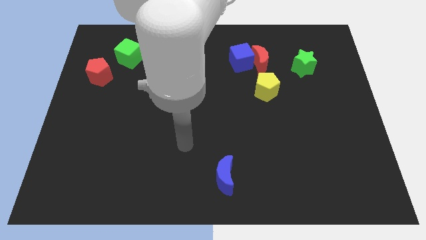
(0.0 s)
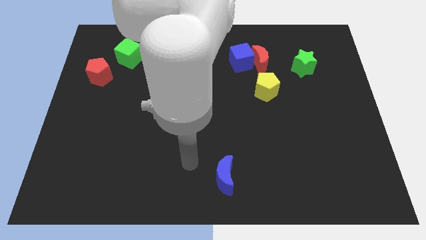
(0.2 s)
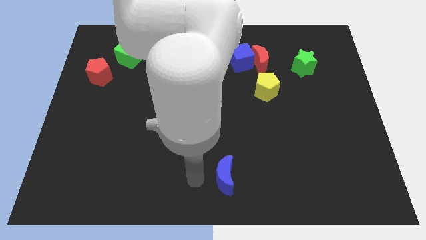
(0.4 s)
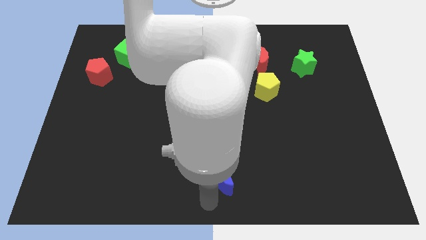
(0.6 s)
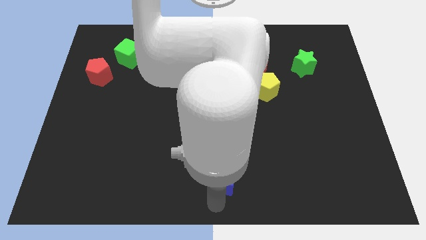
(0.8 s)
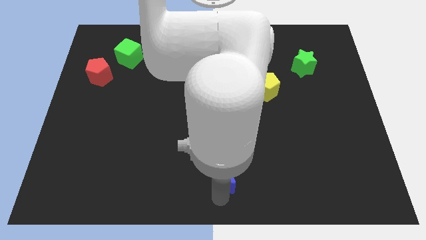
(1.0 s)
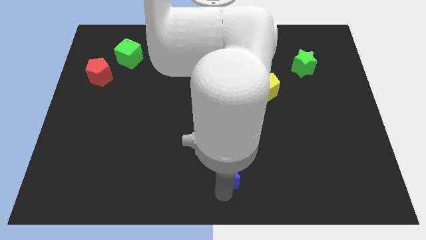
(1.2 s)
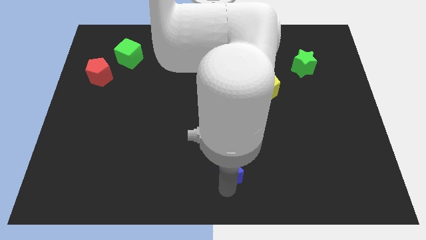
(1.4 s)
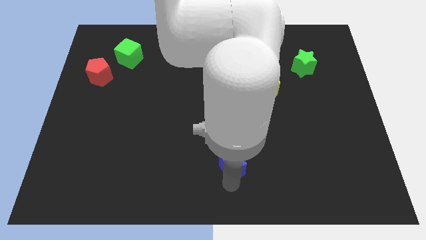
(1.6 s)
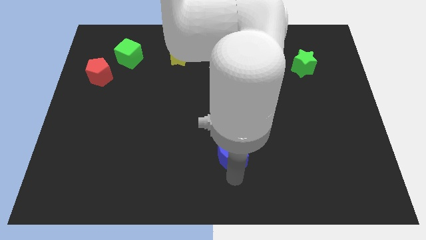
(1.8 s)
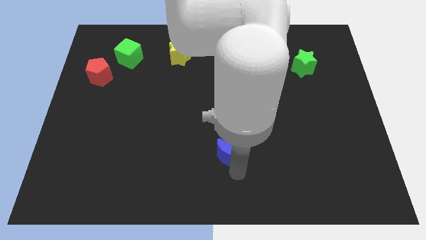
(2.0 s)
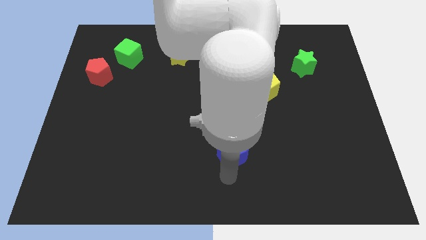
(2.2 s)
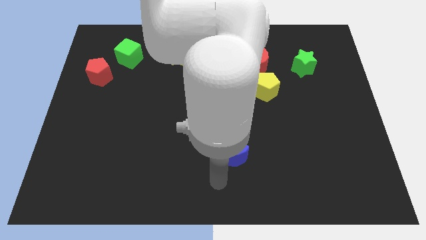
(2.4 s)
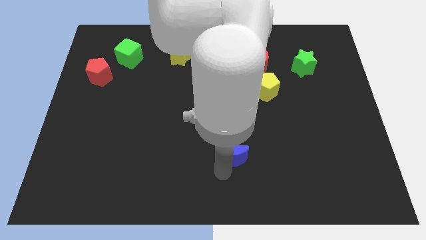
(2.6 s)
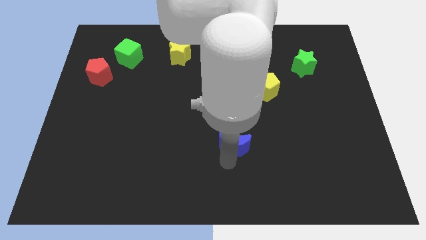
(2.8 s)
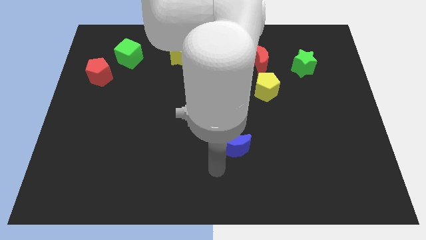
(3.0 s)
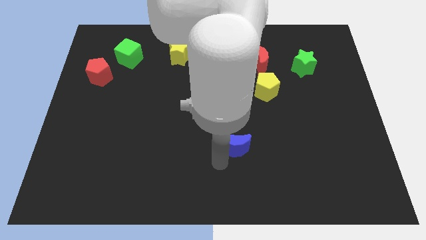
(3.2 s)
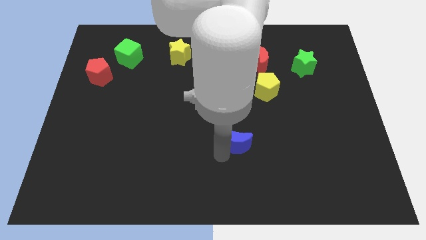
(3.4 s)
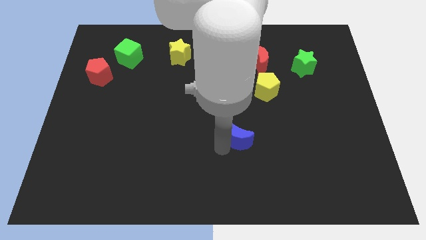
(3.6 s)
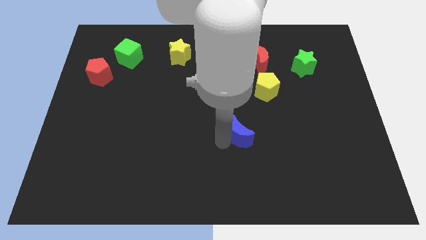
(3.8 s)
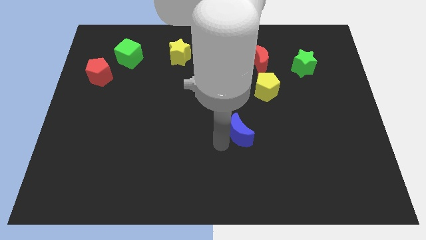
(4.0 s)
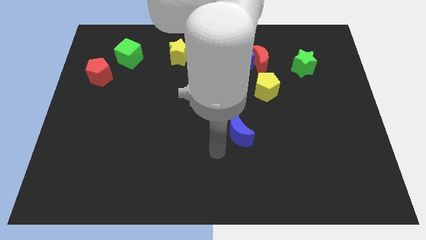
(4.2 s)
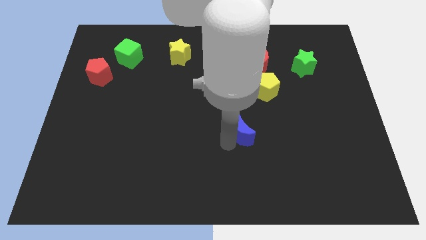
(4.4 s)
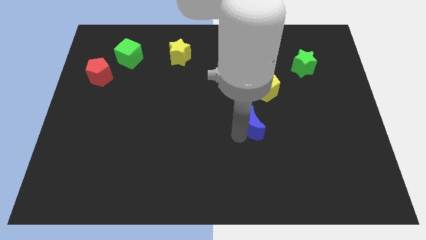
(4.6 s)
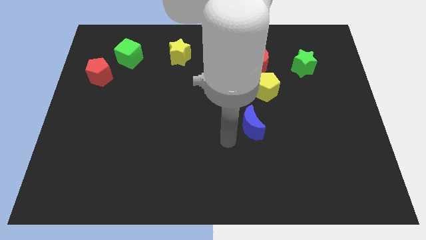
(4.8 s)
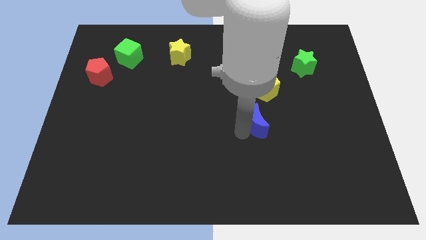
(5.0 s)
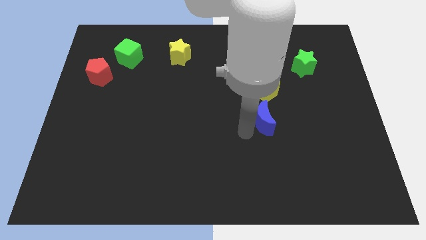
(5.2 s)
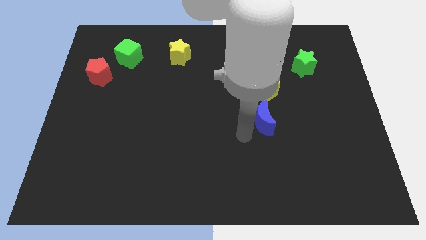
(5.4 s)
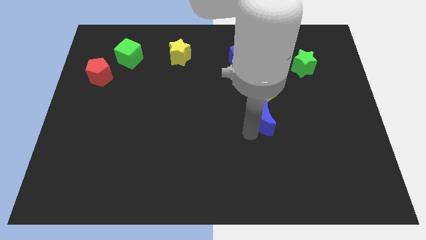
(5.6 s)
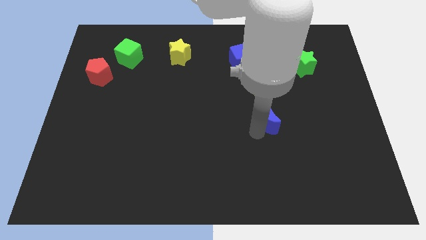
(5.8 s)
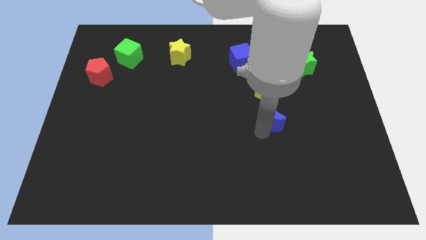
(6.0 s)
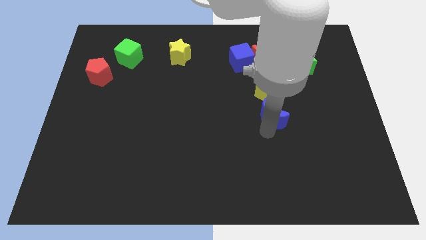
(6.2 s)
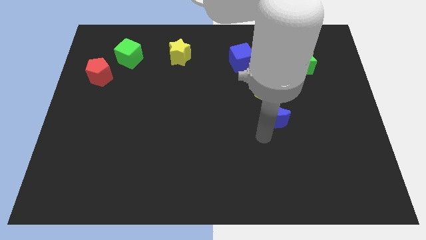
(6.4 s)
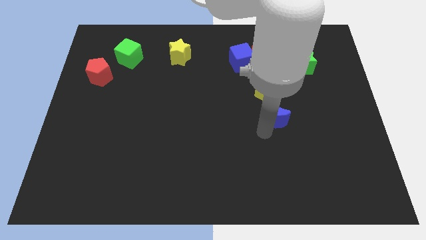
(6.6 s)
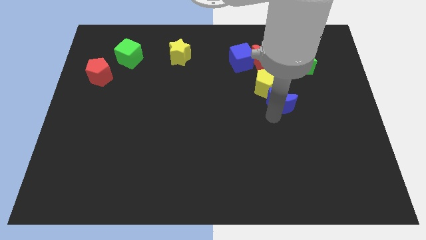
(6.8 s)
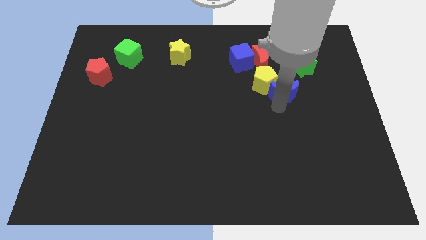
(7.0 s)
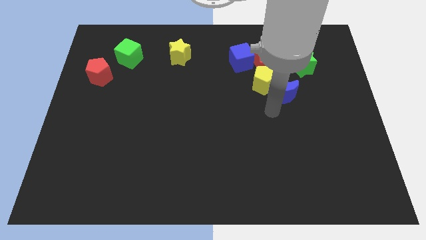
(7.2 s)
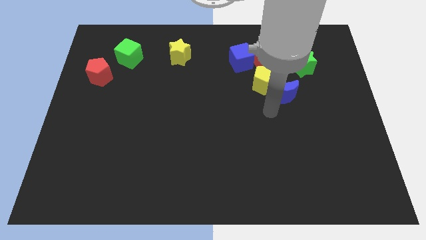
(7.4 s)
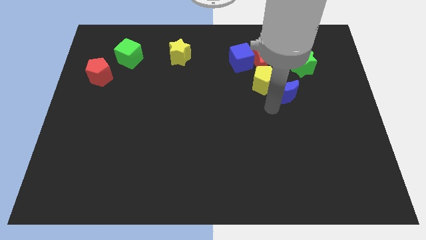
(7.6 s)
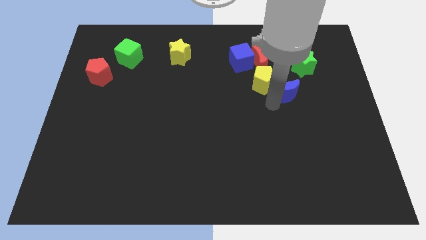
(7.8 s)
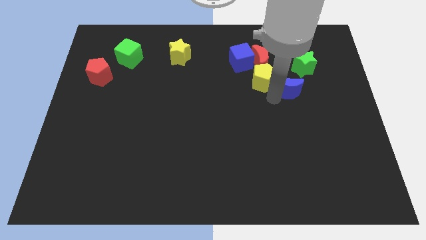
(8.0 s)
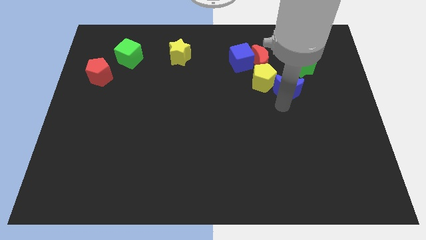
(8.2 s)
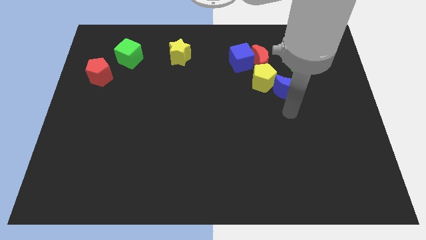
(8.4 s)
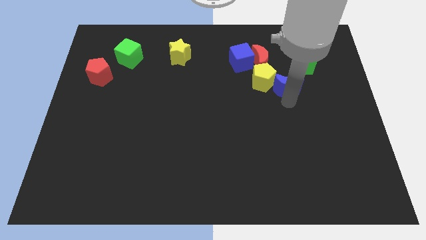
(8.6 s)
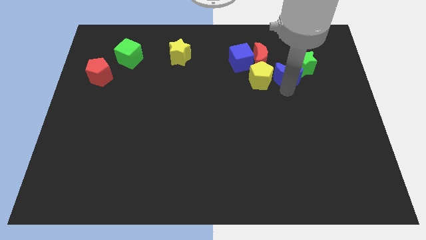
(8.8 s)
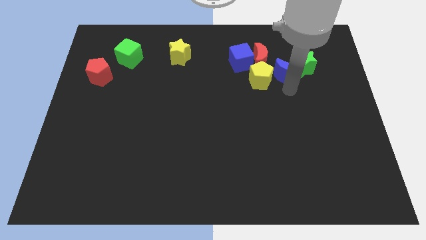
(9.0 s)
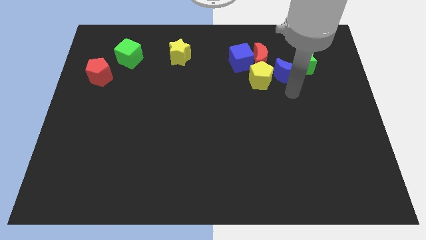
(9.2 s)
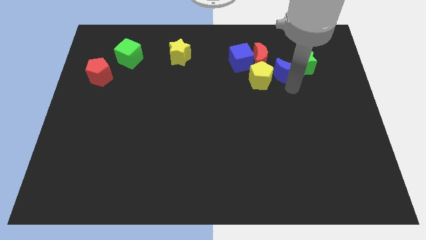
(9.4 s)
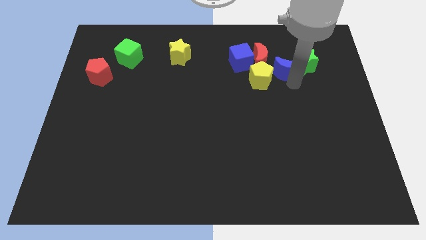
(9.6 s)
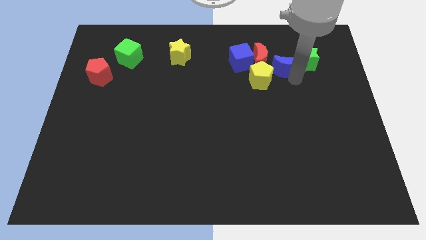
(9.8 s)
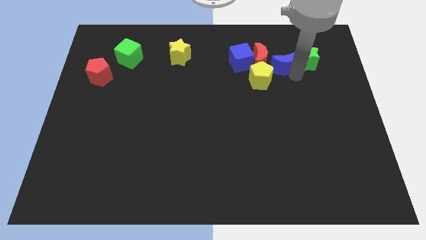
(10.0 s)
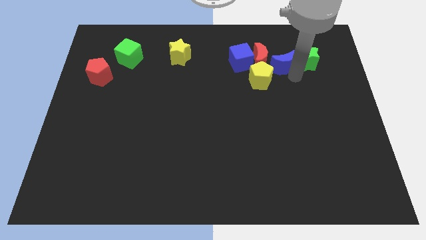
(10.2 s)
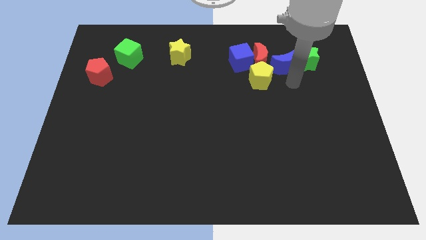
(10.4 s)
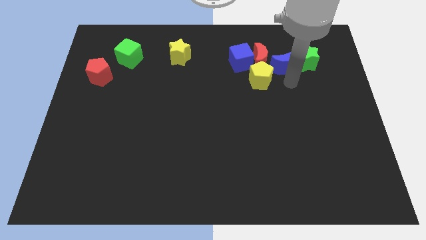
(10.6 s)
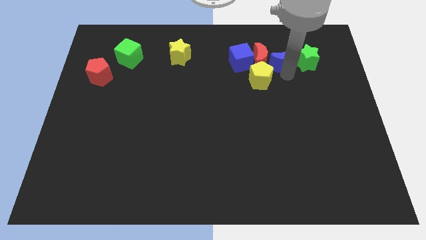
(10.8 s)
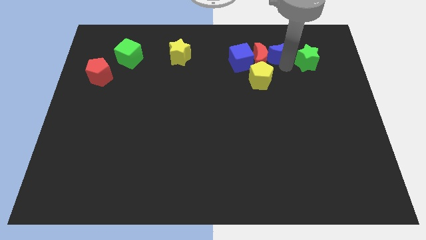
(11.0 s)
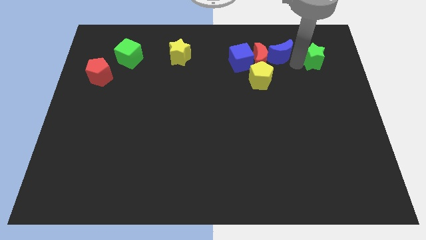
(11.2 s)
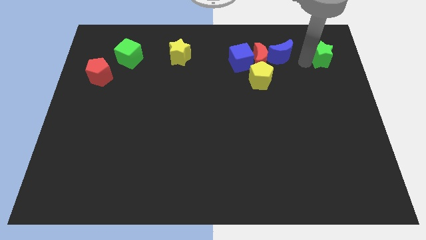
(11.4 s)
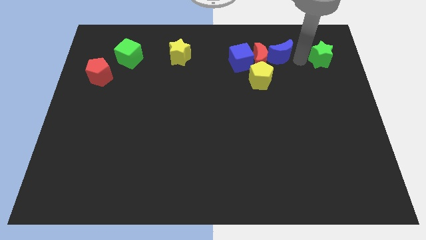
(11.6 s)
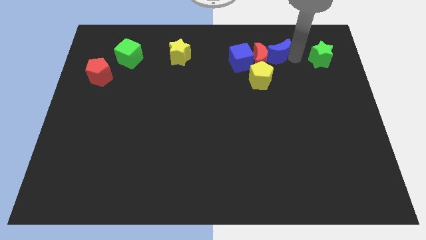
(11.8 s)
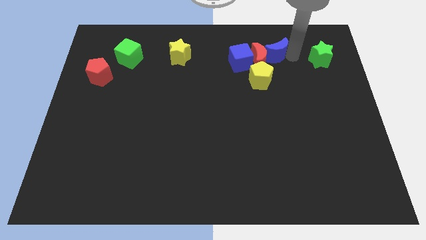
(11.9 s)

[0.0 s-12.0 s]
slide the blue moon to the top side of the yellow pentagon

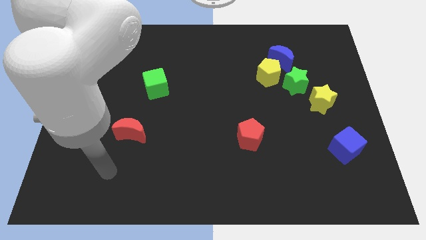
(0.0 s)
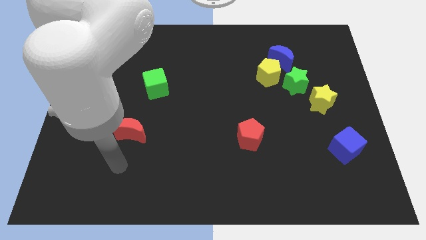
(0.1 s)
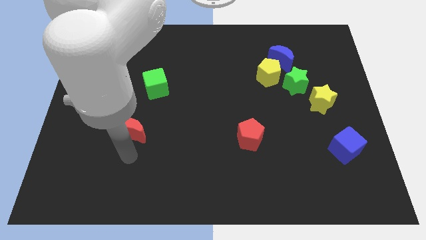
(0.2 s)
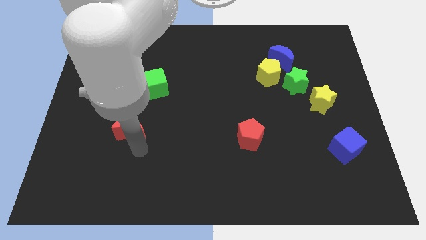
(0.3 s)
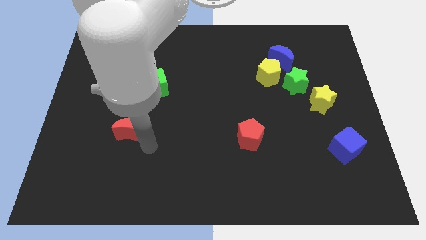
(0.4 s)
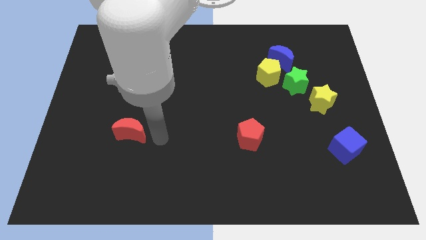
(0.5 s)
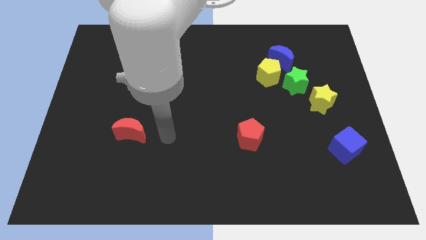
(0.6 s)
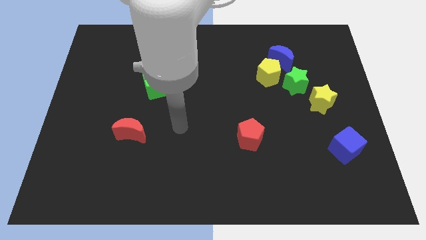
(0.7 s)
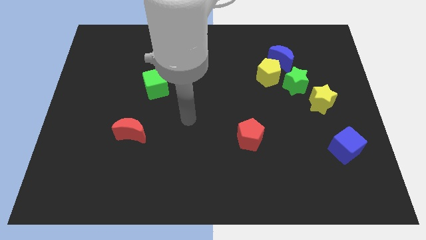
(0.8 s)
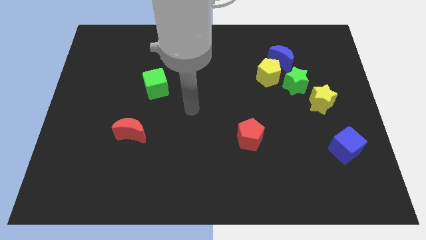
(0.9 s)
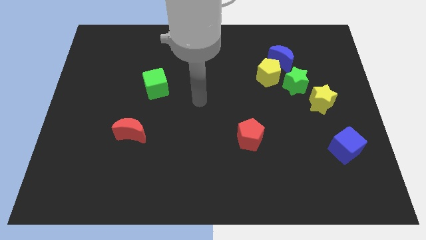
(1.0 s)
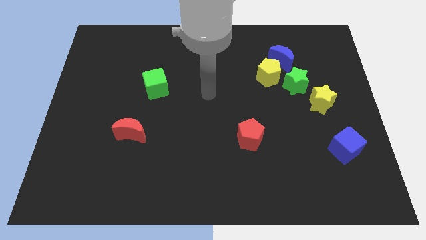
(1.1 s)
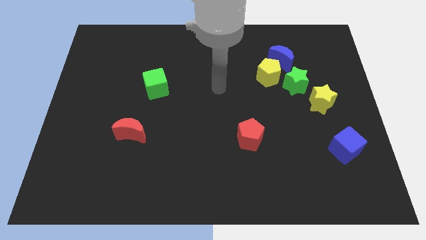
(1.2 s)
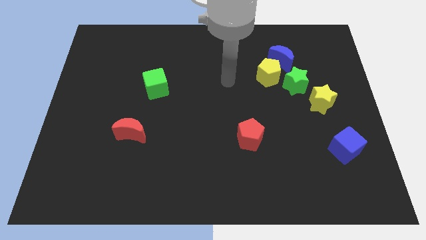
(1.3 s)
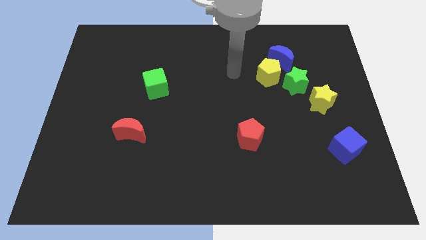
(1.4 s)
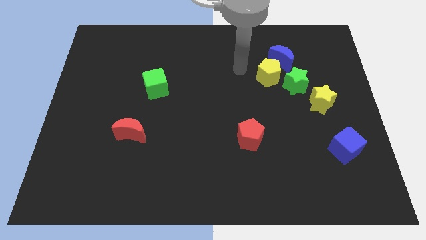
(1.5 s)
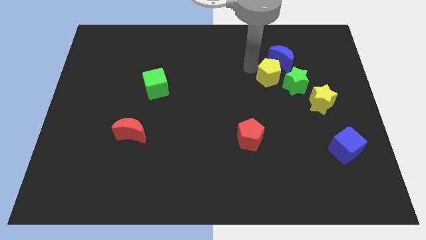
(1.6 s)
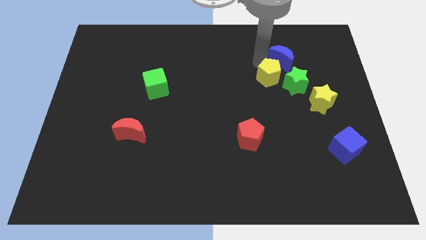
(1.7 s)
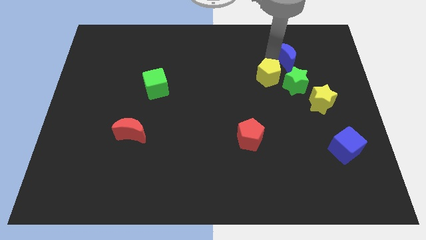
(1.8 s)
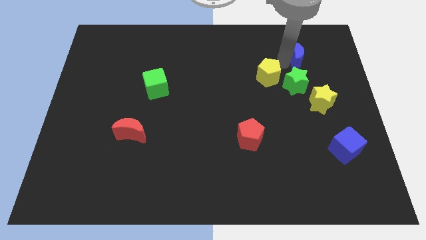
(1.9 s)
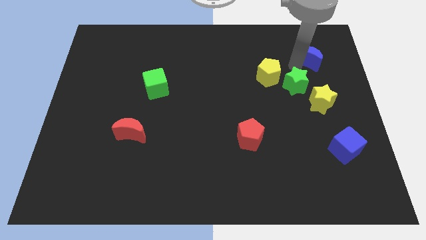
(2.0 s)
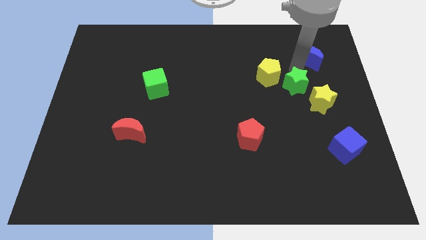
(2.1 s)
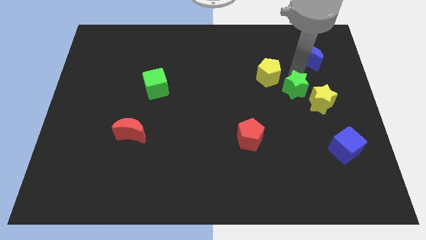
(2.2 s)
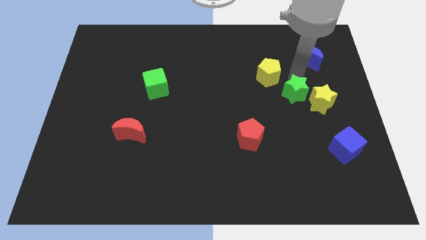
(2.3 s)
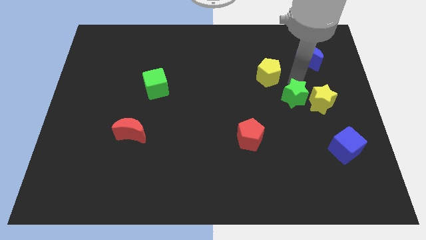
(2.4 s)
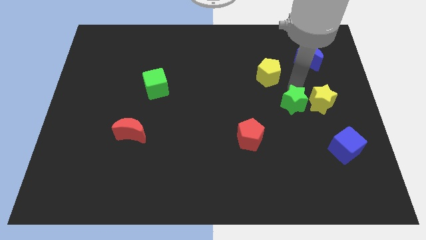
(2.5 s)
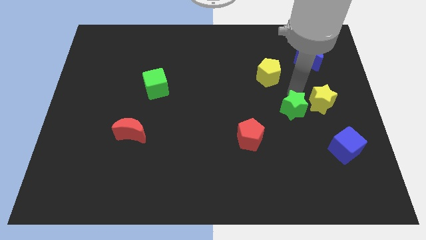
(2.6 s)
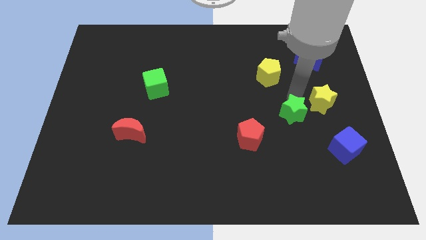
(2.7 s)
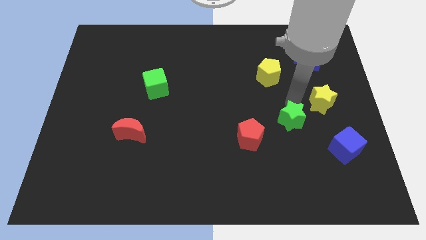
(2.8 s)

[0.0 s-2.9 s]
put the green star right of the red pentagon
